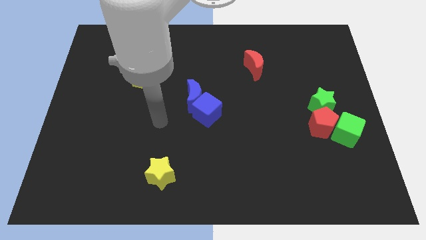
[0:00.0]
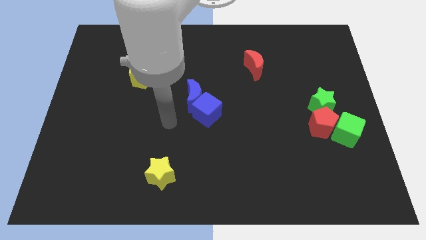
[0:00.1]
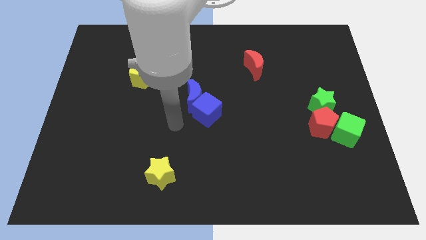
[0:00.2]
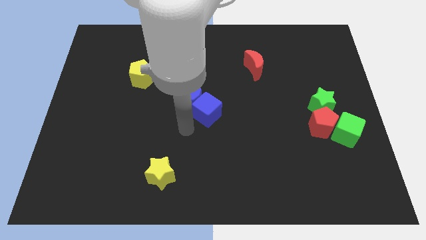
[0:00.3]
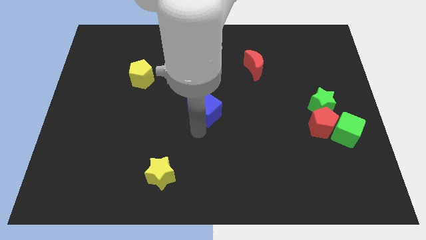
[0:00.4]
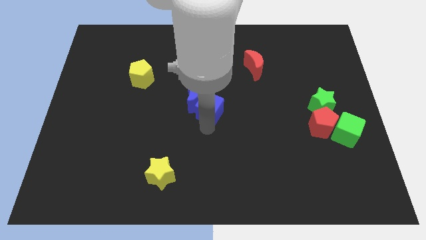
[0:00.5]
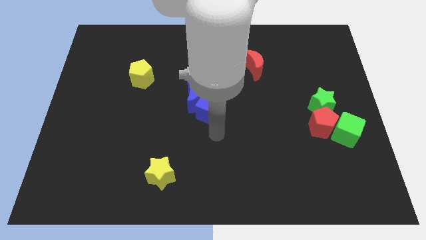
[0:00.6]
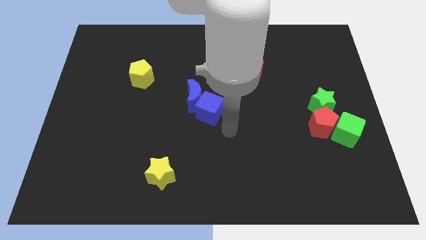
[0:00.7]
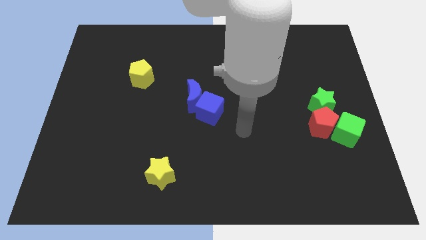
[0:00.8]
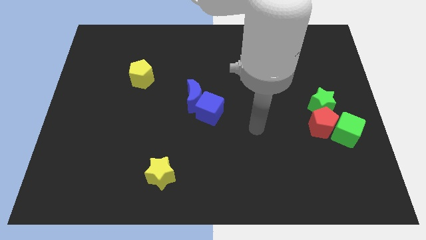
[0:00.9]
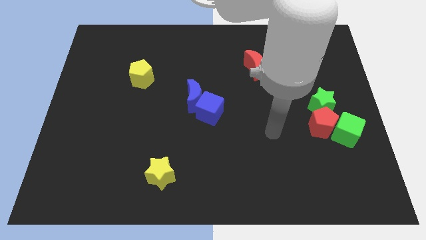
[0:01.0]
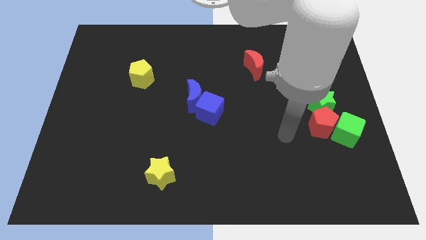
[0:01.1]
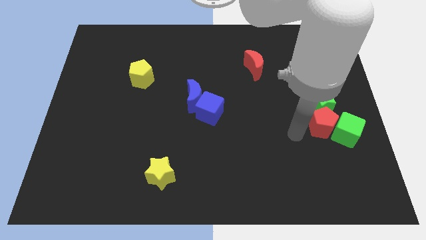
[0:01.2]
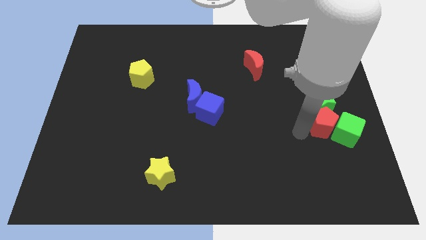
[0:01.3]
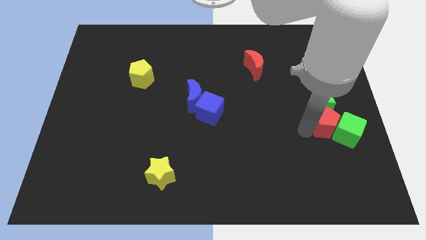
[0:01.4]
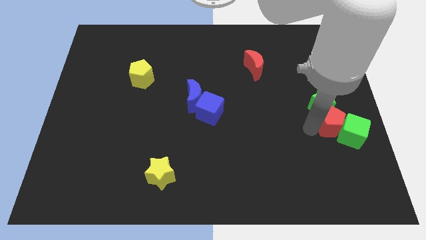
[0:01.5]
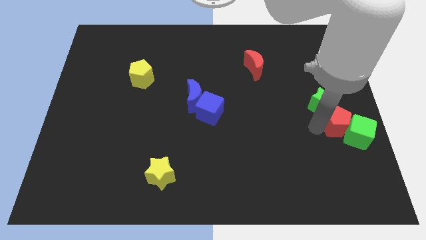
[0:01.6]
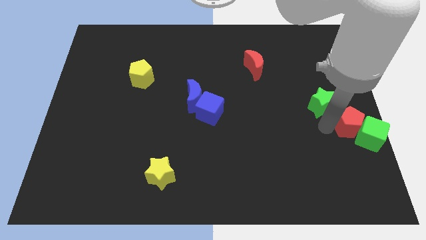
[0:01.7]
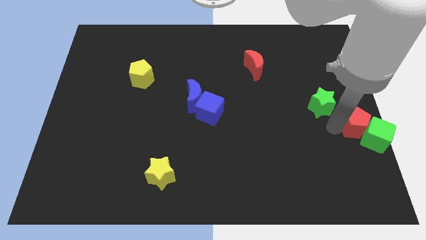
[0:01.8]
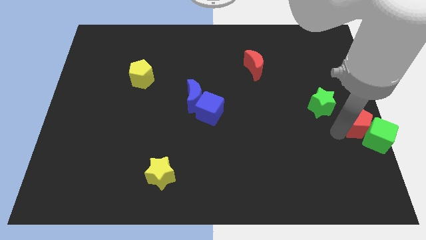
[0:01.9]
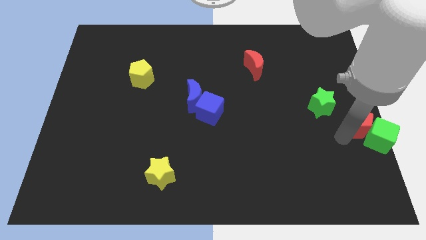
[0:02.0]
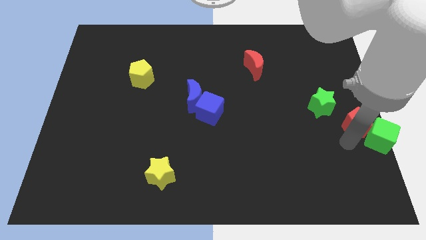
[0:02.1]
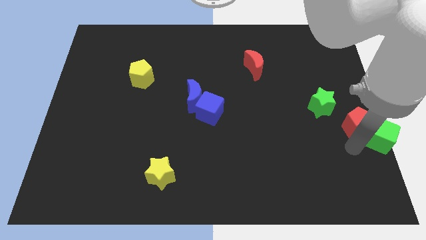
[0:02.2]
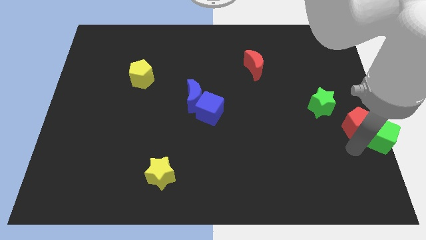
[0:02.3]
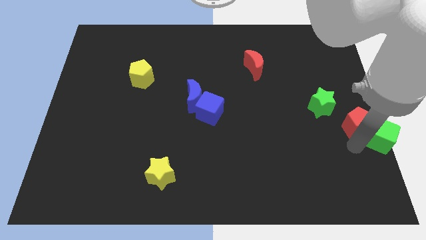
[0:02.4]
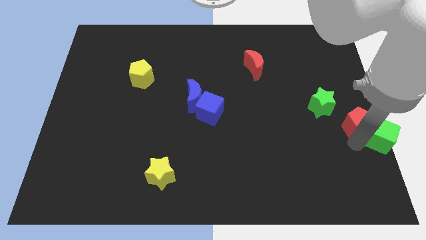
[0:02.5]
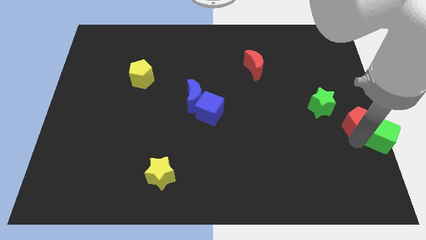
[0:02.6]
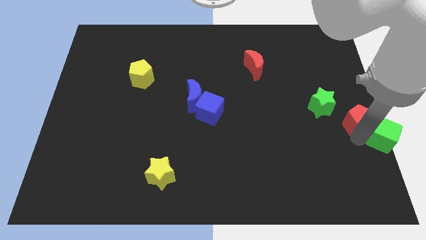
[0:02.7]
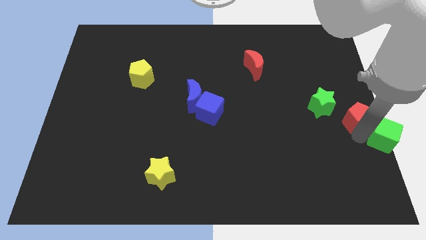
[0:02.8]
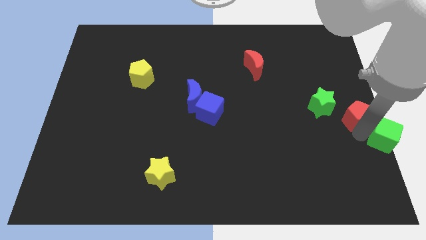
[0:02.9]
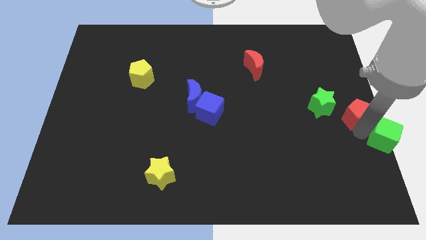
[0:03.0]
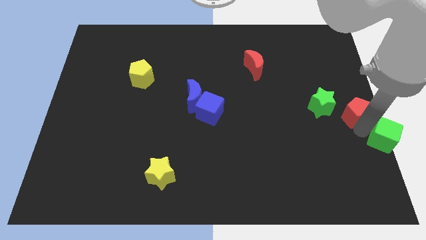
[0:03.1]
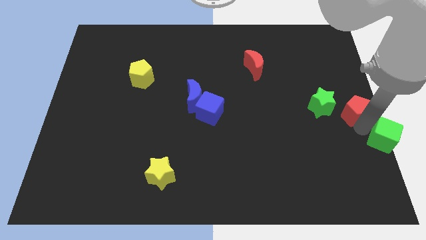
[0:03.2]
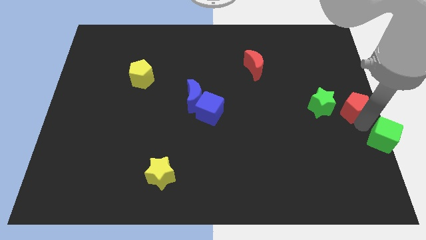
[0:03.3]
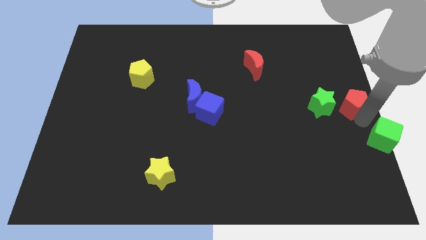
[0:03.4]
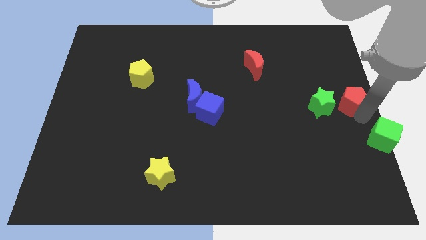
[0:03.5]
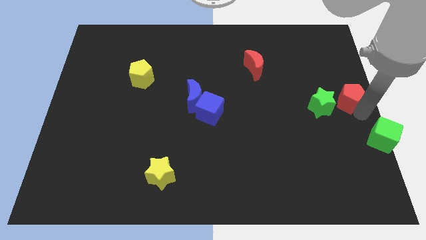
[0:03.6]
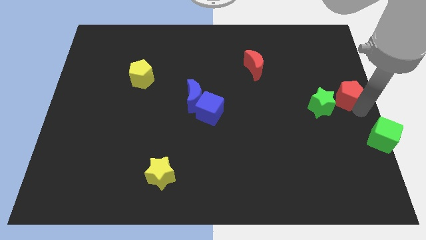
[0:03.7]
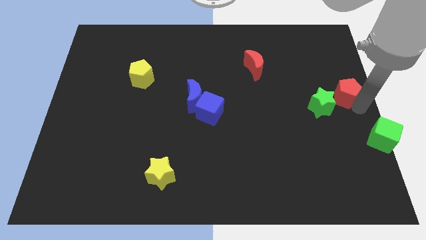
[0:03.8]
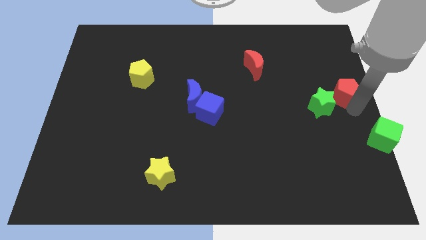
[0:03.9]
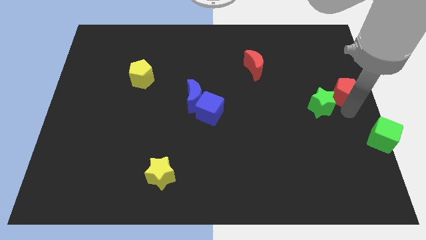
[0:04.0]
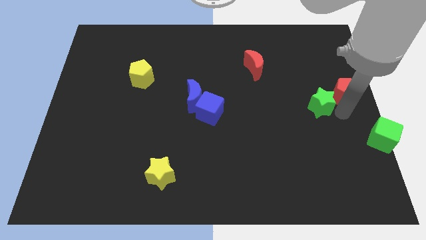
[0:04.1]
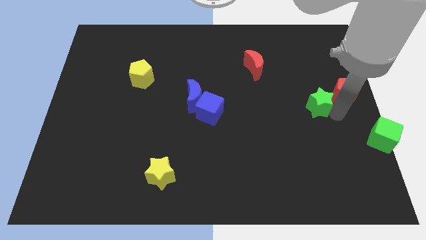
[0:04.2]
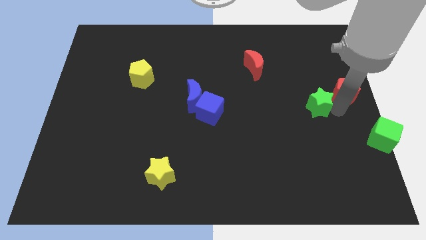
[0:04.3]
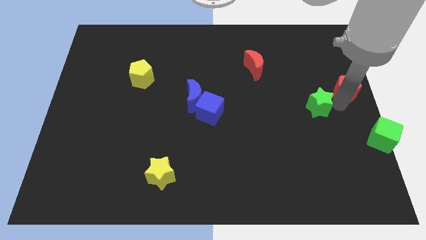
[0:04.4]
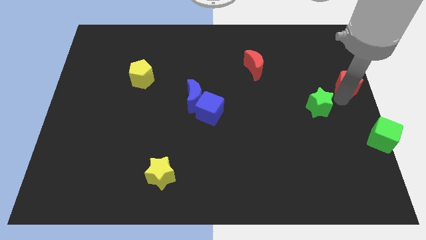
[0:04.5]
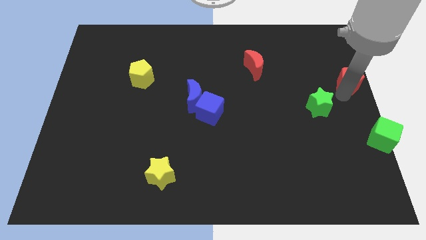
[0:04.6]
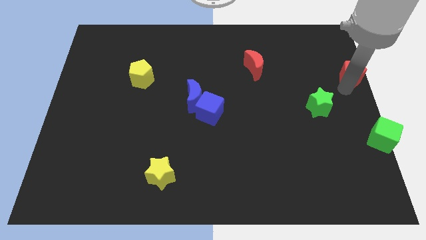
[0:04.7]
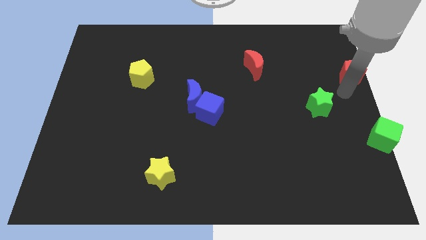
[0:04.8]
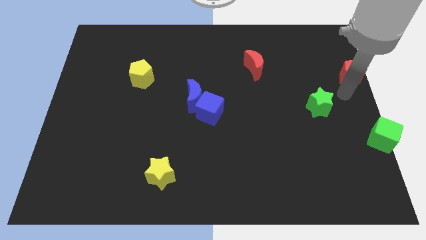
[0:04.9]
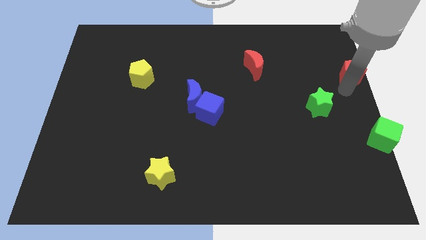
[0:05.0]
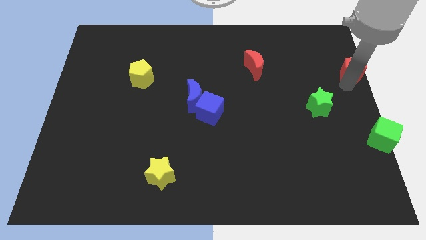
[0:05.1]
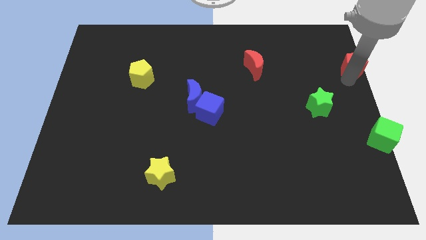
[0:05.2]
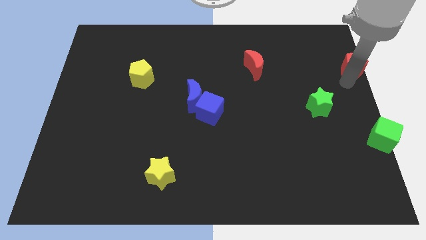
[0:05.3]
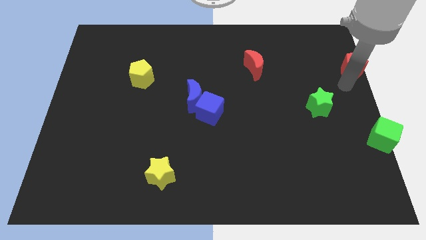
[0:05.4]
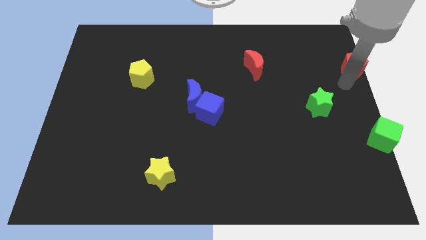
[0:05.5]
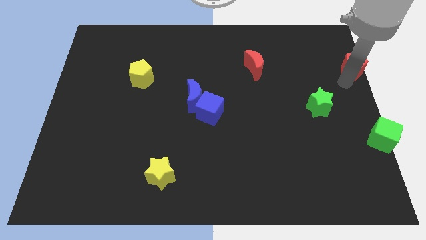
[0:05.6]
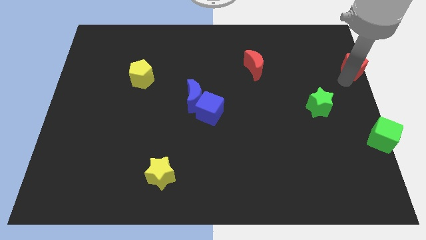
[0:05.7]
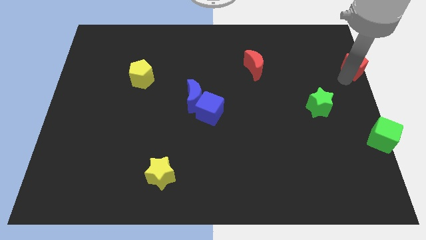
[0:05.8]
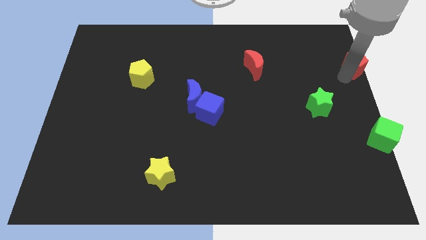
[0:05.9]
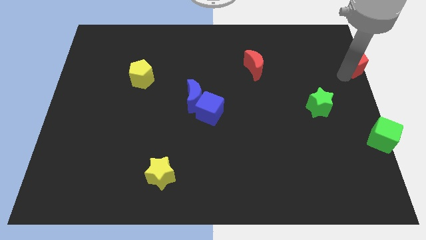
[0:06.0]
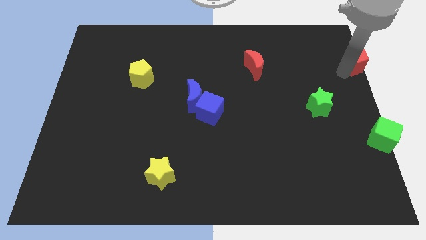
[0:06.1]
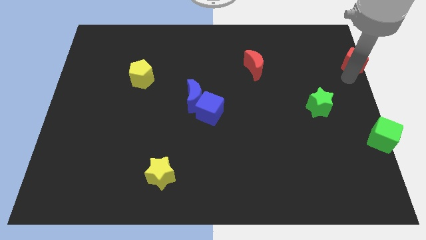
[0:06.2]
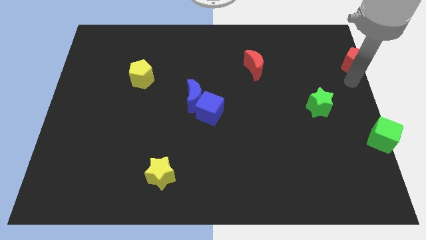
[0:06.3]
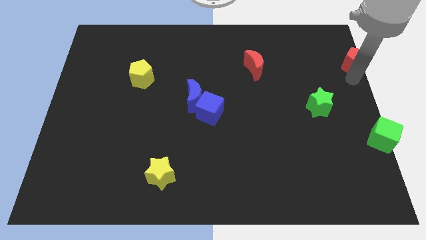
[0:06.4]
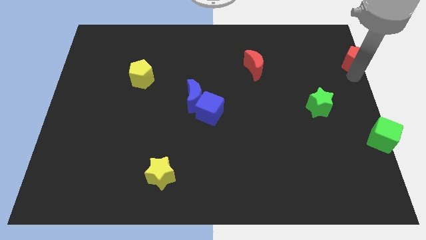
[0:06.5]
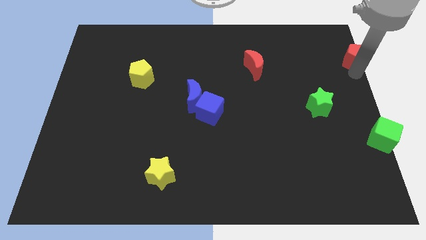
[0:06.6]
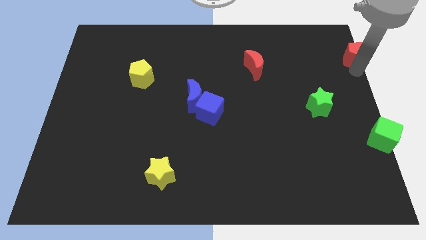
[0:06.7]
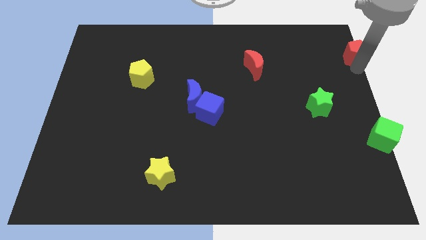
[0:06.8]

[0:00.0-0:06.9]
move the red pentagon to the top right
